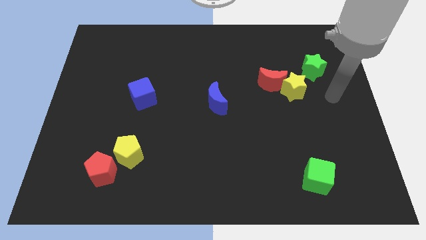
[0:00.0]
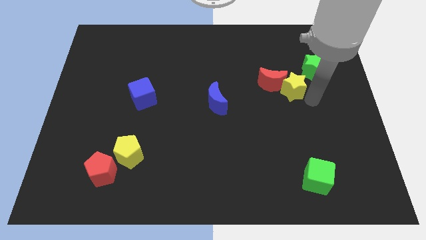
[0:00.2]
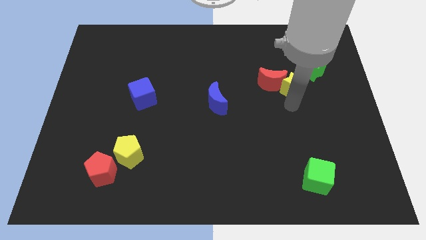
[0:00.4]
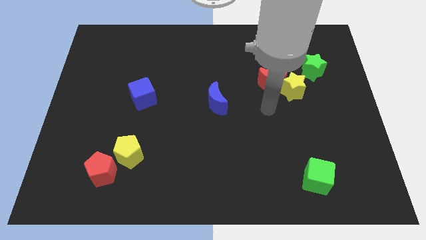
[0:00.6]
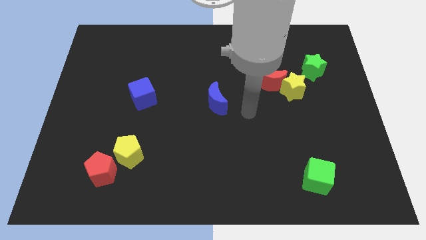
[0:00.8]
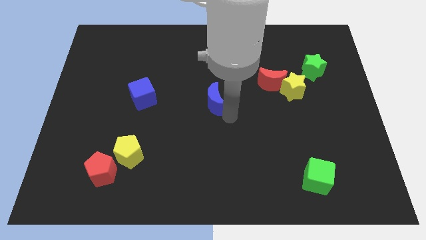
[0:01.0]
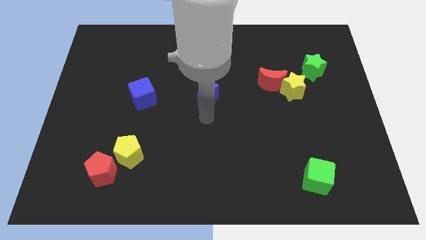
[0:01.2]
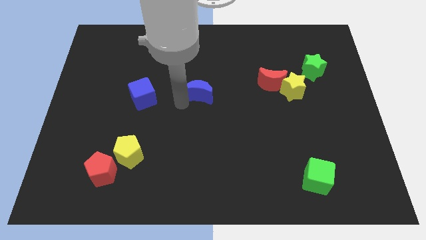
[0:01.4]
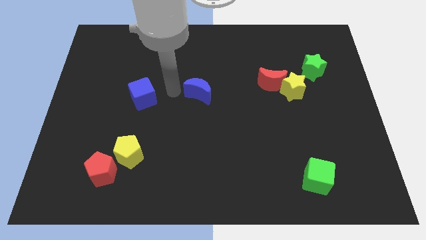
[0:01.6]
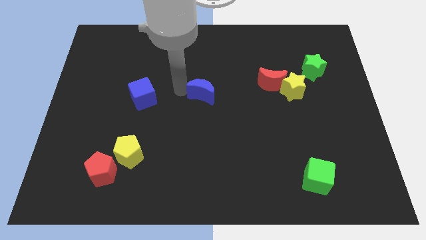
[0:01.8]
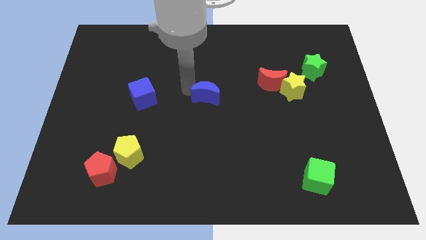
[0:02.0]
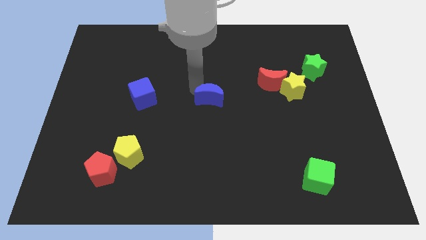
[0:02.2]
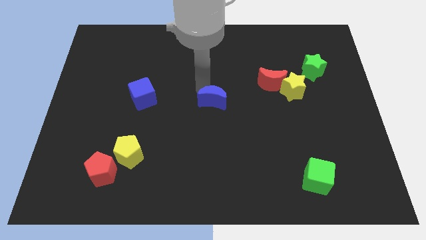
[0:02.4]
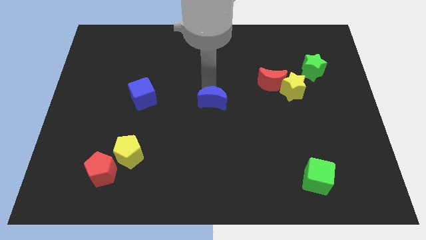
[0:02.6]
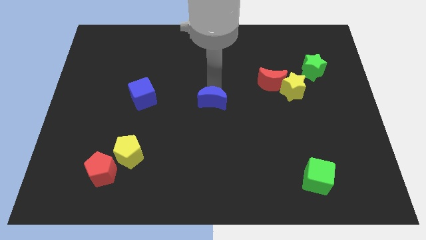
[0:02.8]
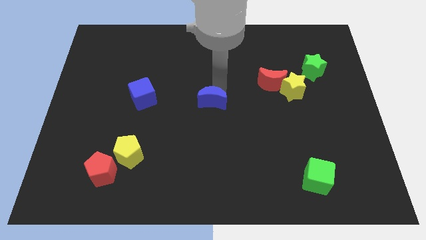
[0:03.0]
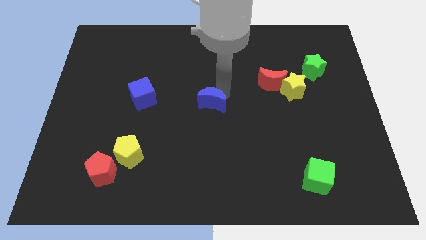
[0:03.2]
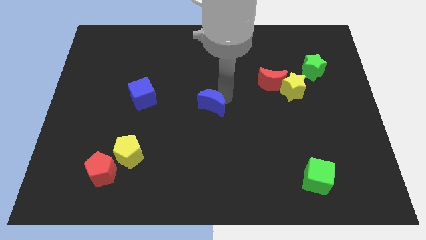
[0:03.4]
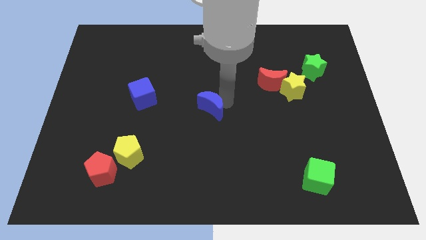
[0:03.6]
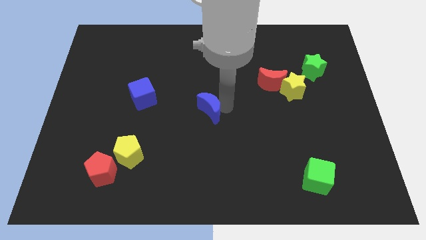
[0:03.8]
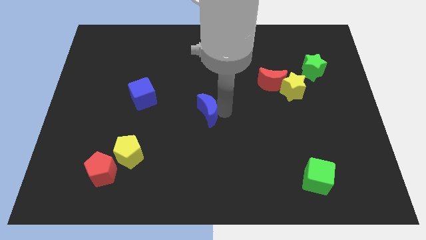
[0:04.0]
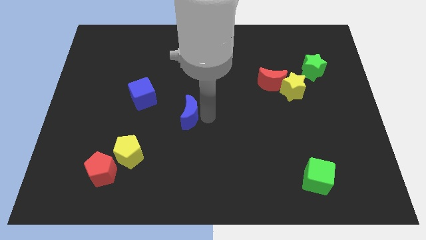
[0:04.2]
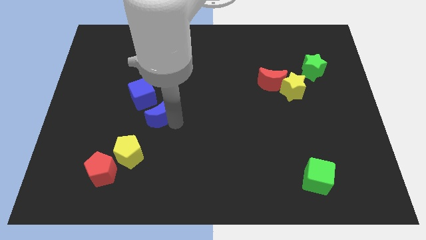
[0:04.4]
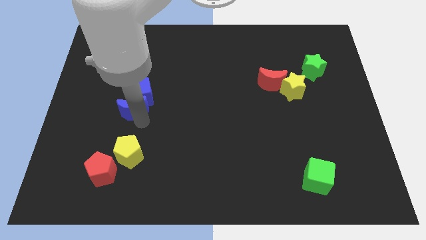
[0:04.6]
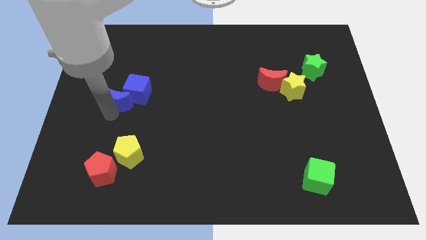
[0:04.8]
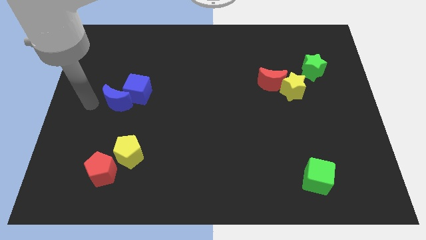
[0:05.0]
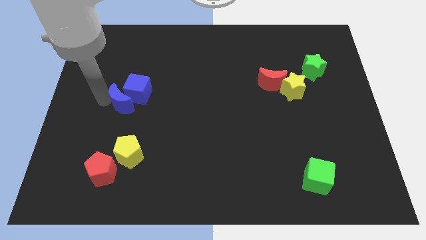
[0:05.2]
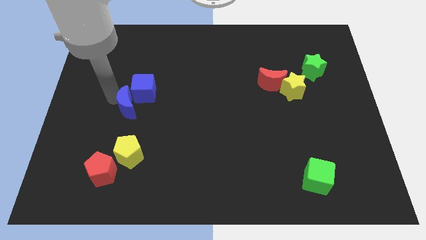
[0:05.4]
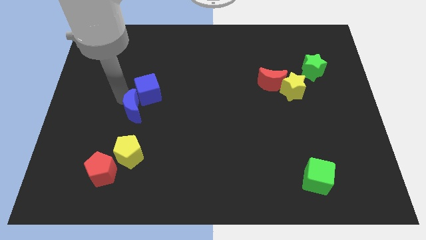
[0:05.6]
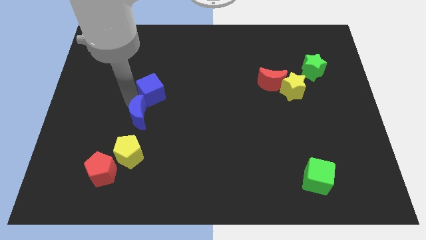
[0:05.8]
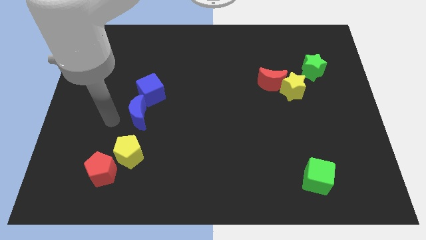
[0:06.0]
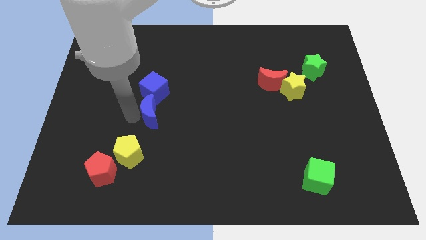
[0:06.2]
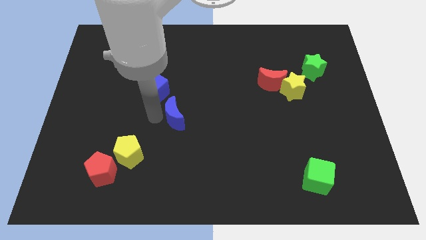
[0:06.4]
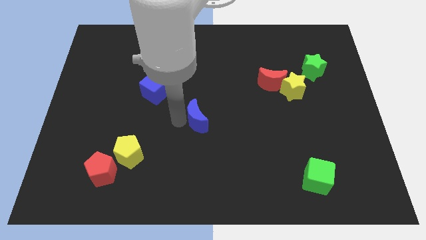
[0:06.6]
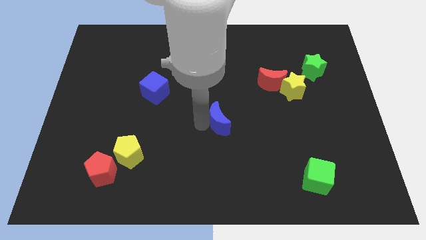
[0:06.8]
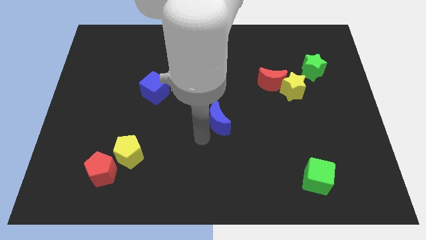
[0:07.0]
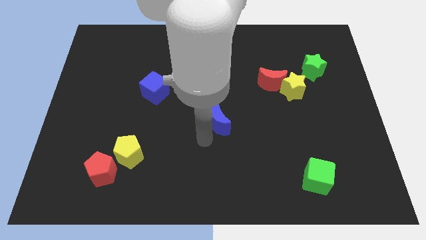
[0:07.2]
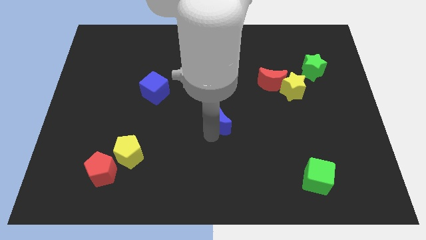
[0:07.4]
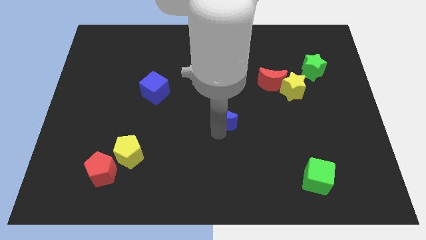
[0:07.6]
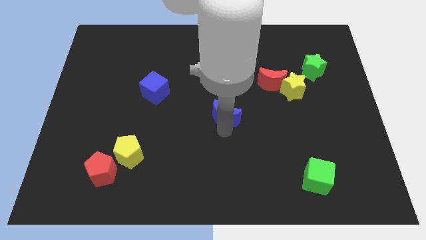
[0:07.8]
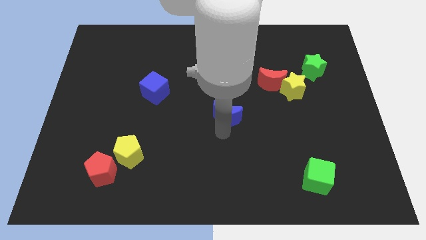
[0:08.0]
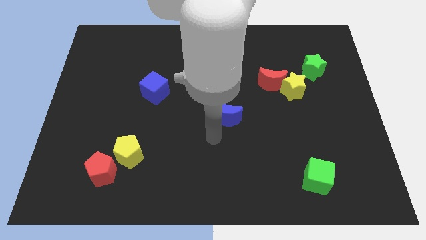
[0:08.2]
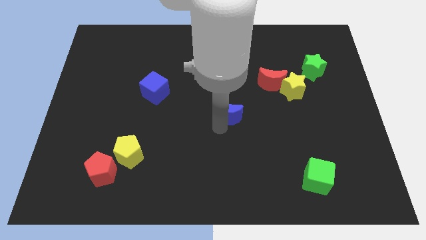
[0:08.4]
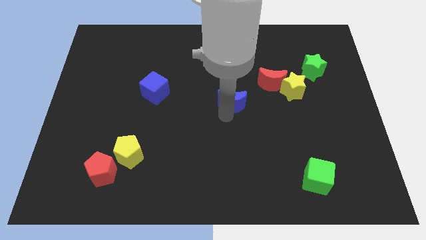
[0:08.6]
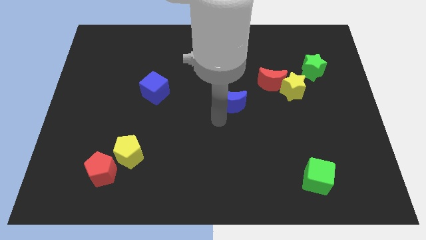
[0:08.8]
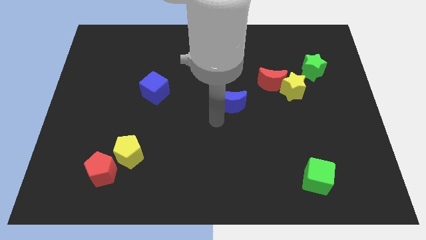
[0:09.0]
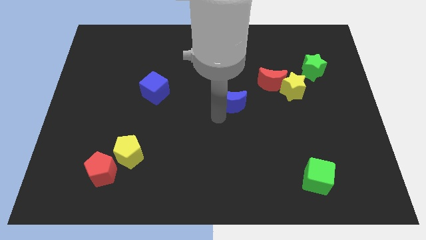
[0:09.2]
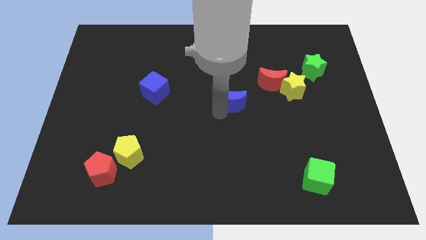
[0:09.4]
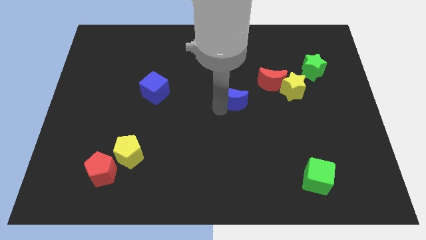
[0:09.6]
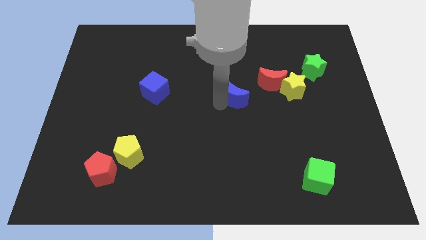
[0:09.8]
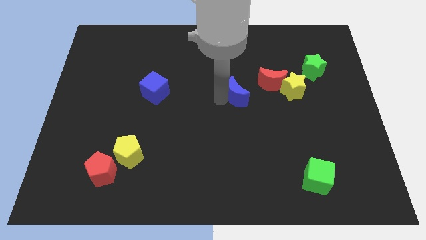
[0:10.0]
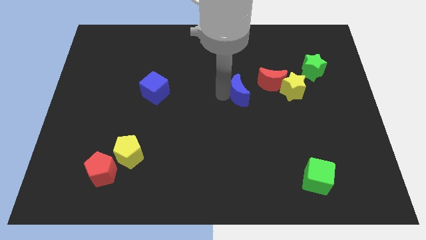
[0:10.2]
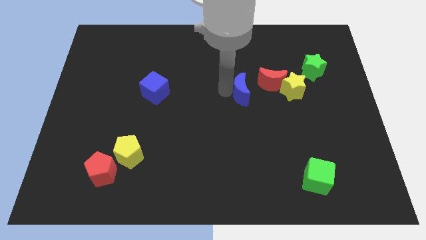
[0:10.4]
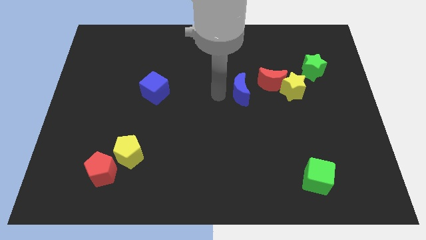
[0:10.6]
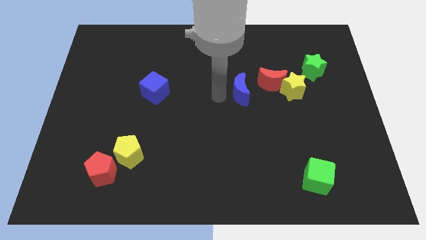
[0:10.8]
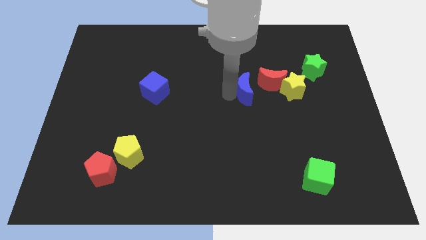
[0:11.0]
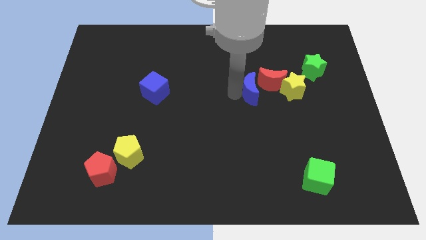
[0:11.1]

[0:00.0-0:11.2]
slide the blue moon next to the red moon
